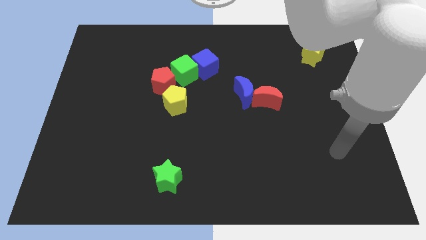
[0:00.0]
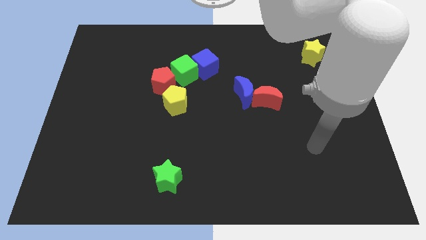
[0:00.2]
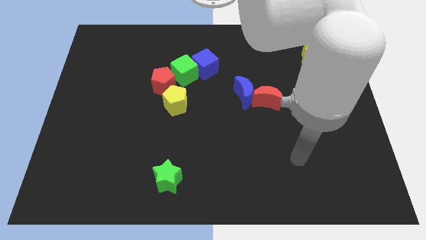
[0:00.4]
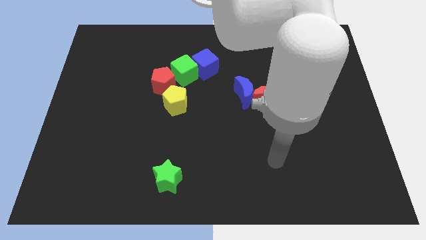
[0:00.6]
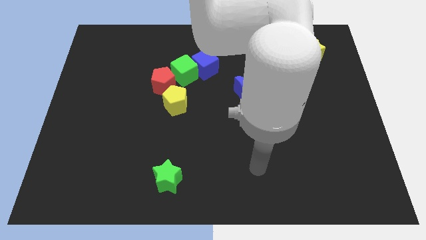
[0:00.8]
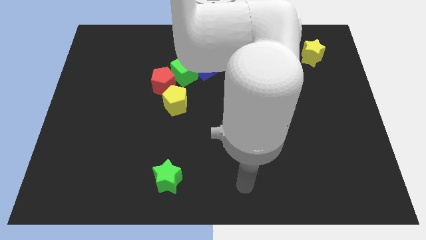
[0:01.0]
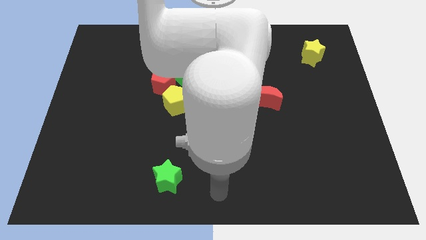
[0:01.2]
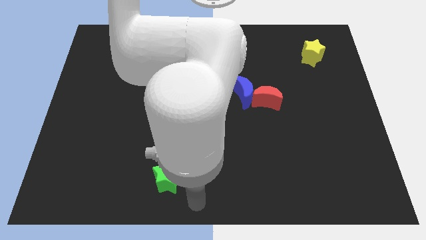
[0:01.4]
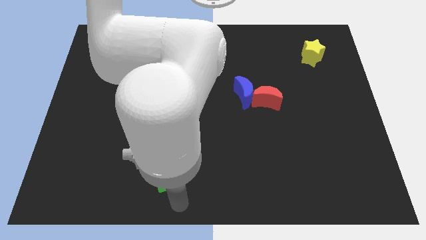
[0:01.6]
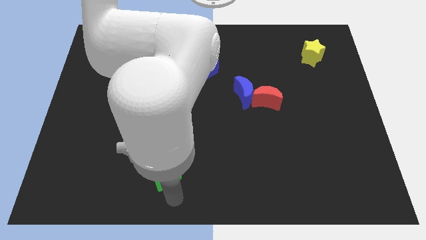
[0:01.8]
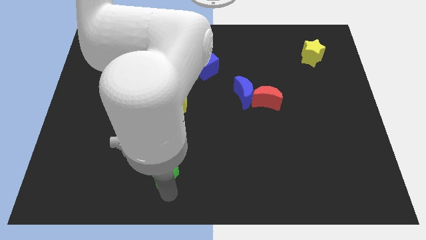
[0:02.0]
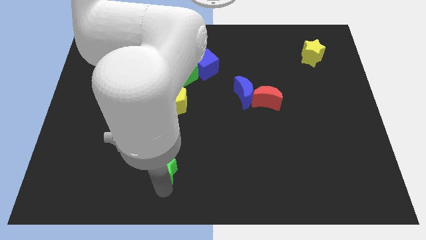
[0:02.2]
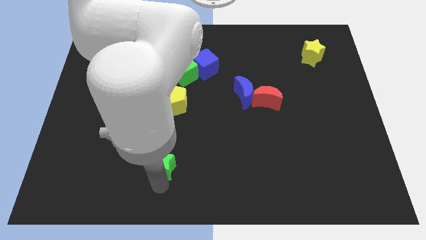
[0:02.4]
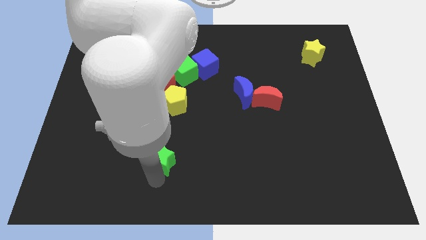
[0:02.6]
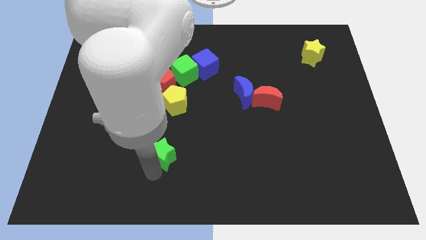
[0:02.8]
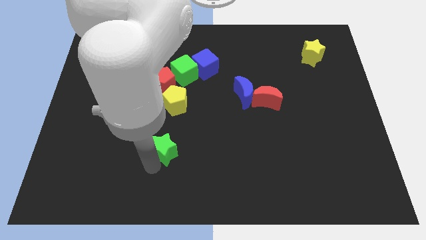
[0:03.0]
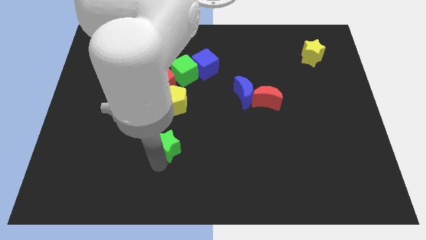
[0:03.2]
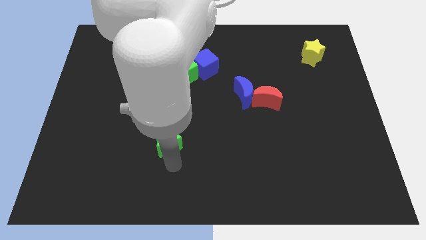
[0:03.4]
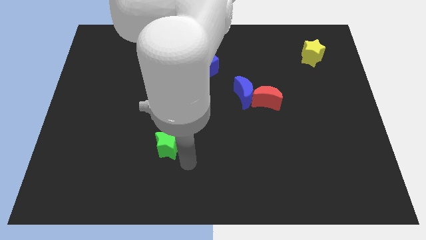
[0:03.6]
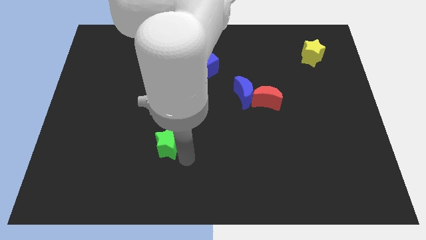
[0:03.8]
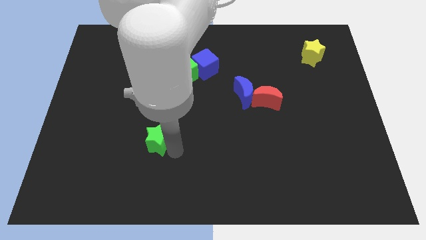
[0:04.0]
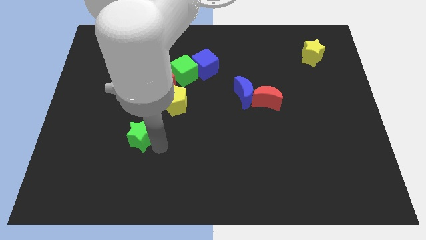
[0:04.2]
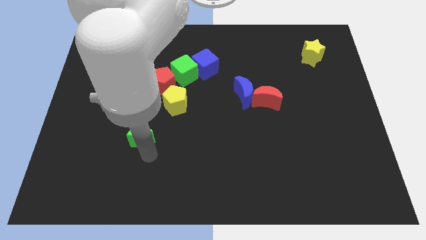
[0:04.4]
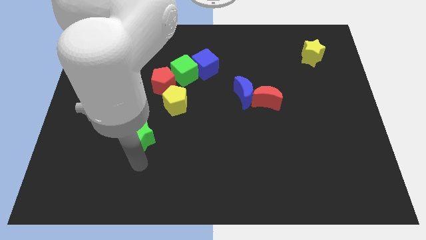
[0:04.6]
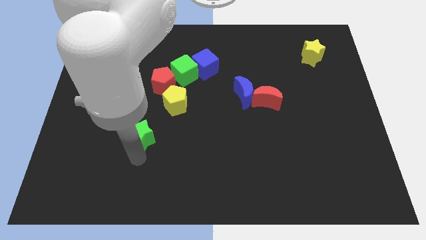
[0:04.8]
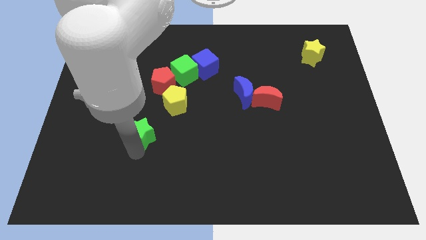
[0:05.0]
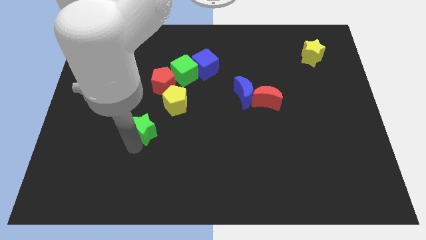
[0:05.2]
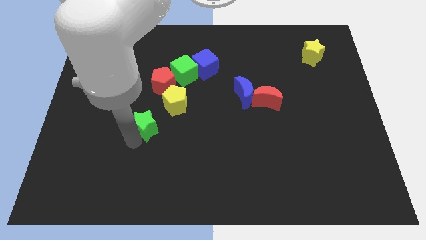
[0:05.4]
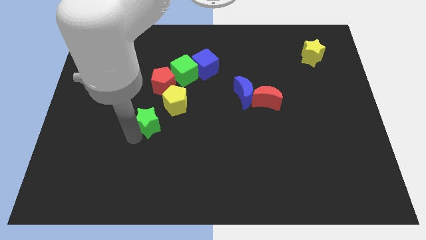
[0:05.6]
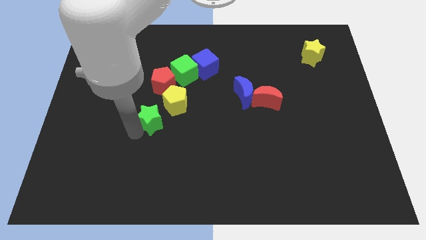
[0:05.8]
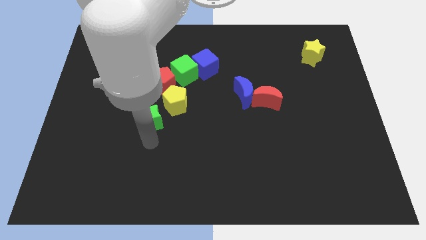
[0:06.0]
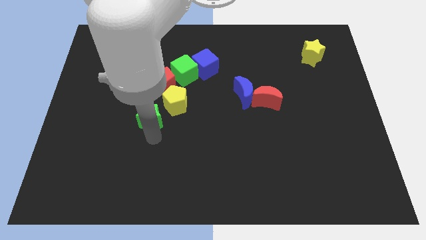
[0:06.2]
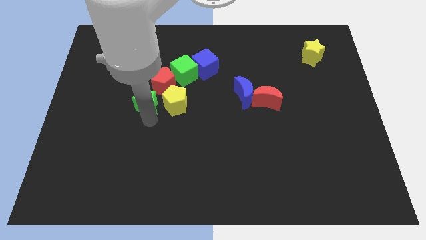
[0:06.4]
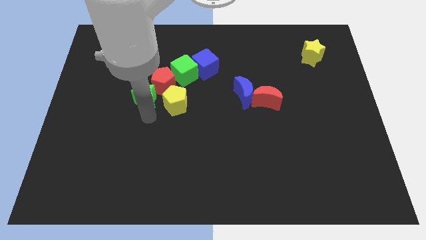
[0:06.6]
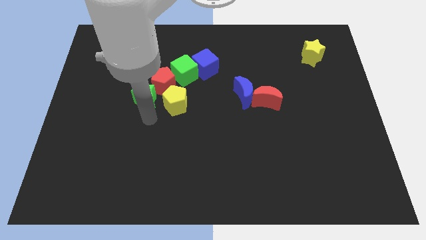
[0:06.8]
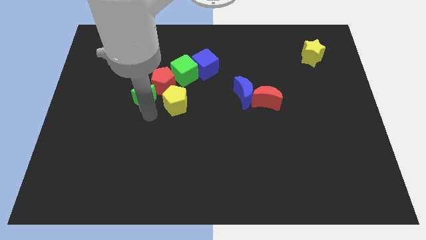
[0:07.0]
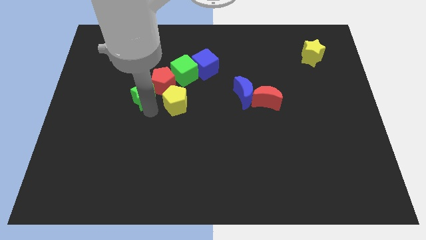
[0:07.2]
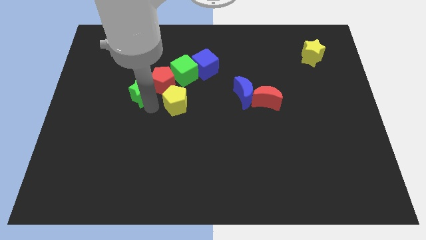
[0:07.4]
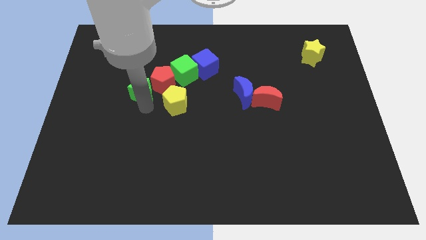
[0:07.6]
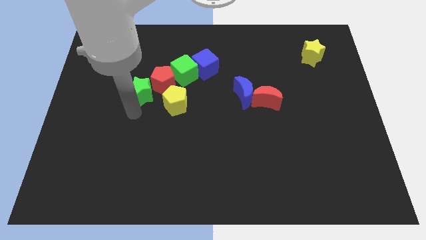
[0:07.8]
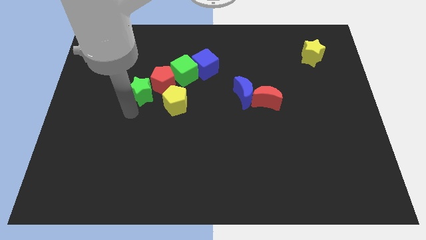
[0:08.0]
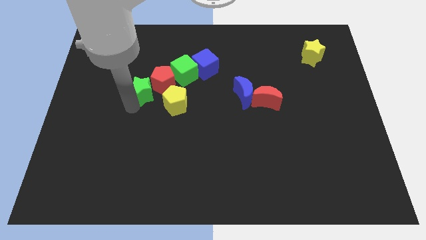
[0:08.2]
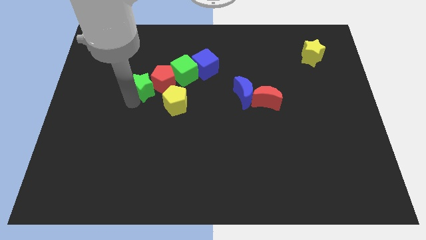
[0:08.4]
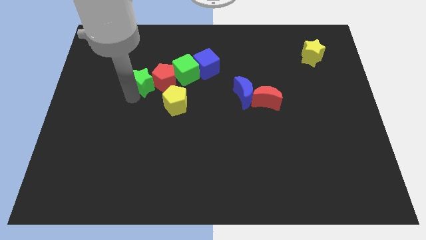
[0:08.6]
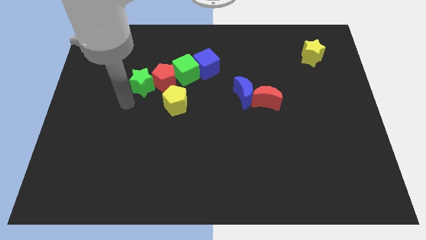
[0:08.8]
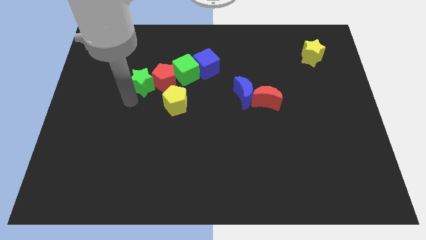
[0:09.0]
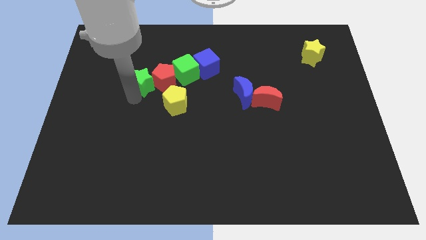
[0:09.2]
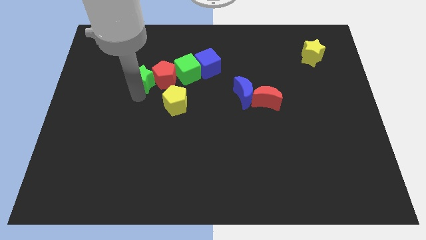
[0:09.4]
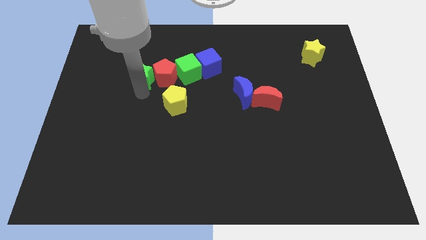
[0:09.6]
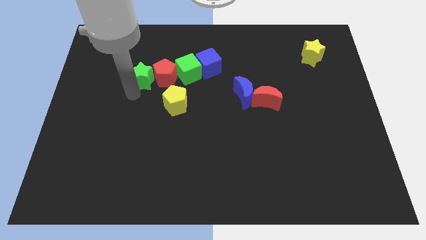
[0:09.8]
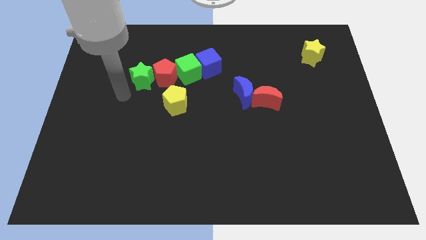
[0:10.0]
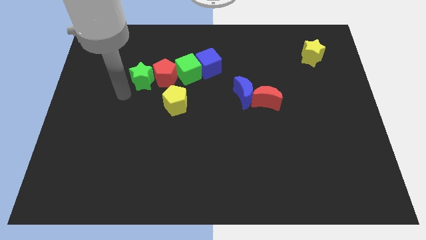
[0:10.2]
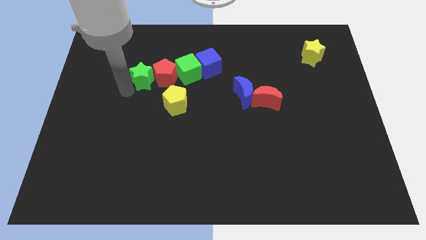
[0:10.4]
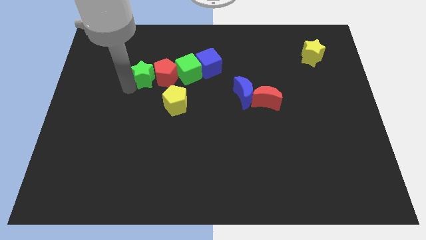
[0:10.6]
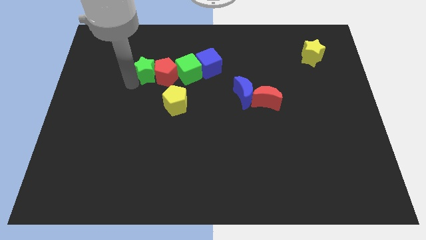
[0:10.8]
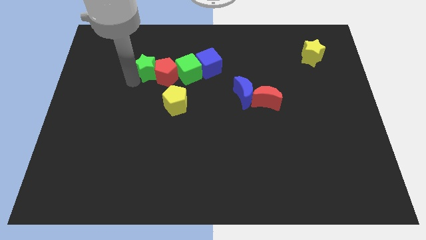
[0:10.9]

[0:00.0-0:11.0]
move the green star to the left side of the blue cube

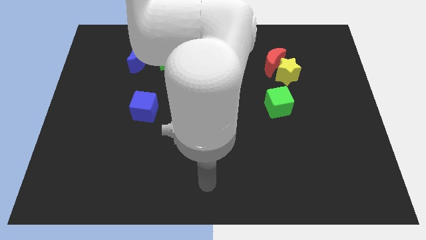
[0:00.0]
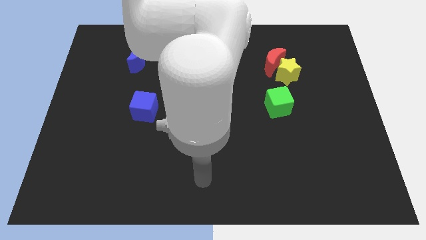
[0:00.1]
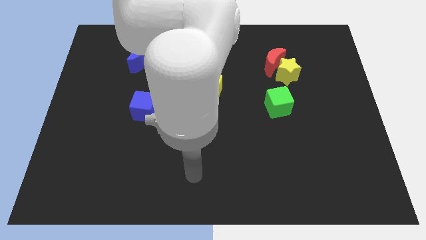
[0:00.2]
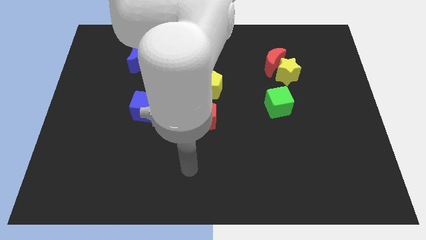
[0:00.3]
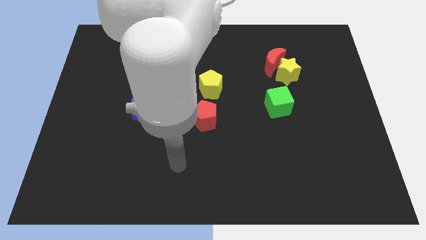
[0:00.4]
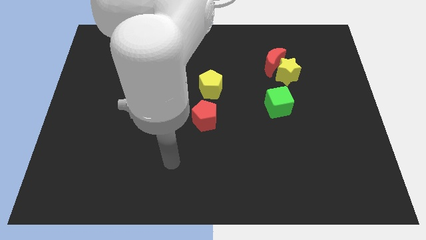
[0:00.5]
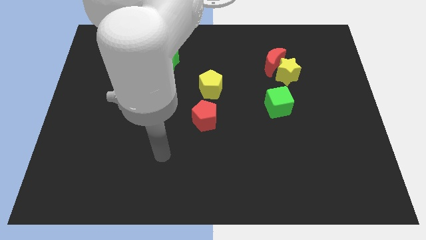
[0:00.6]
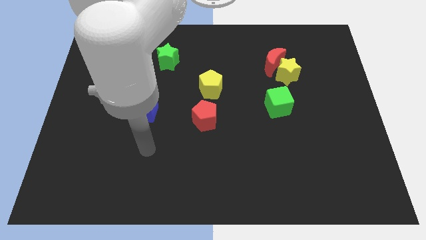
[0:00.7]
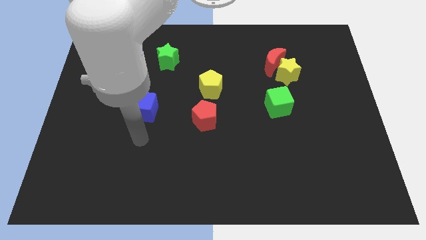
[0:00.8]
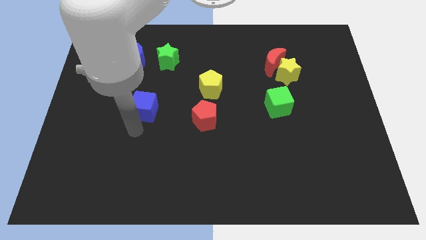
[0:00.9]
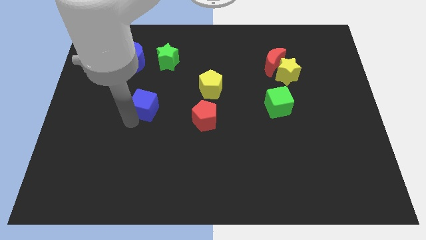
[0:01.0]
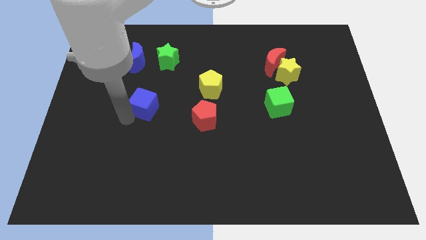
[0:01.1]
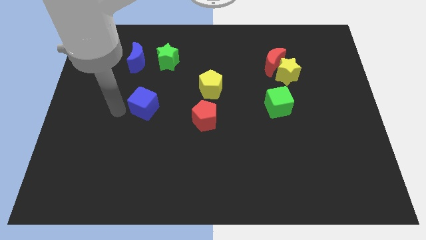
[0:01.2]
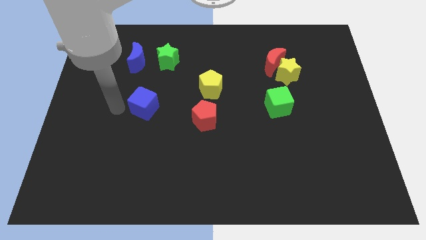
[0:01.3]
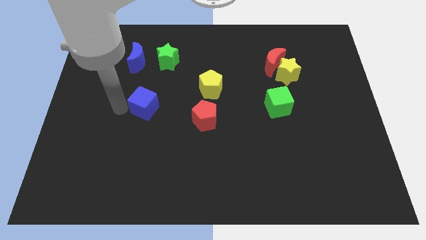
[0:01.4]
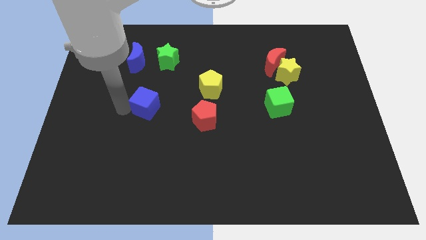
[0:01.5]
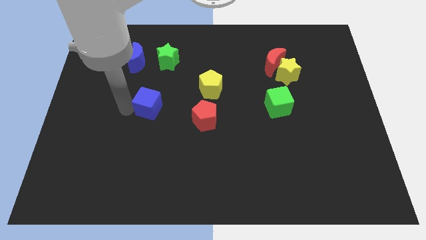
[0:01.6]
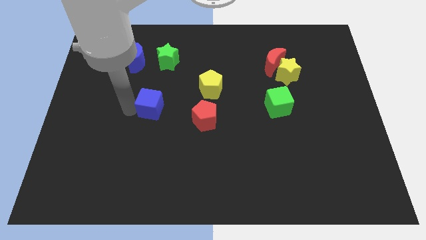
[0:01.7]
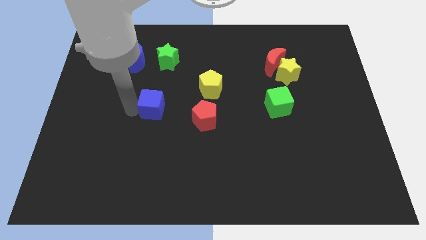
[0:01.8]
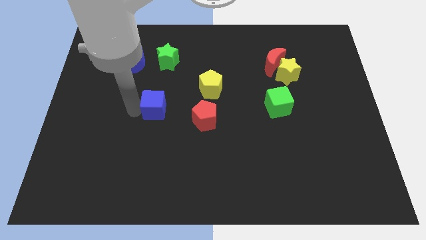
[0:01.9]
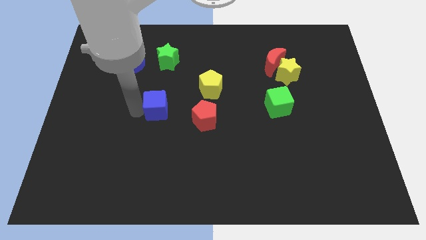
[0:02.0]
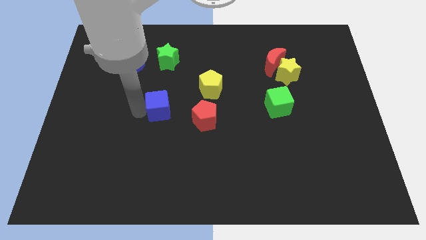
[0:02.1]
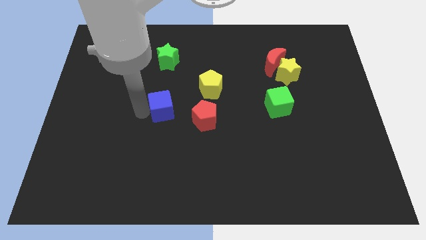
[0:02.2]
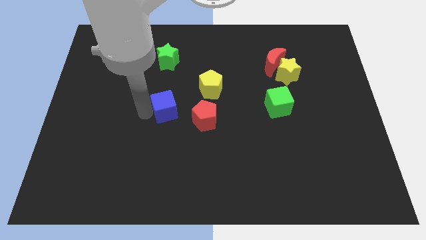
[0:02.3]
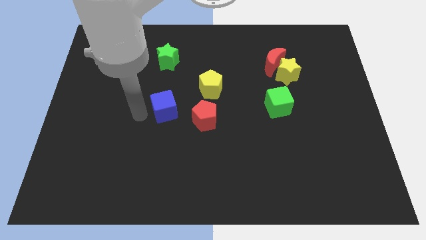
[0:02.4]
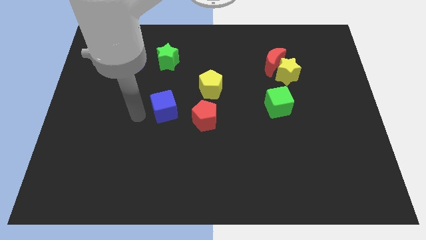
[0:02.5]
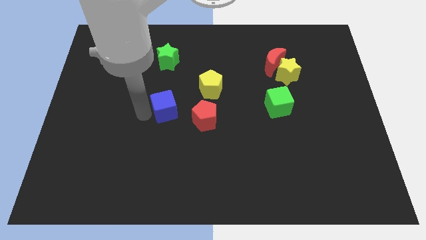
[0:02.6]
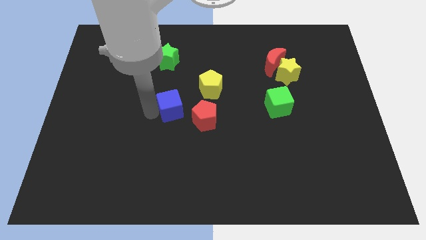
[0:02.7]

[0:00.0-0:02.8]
push the blue cube diagonally down and to the left of the yellow pentagon
